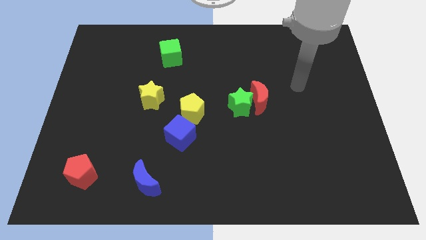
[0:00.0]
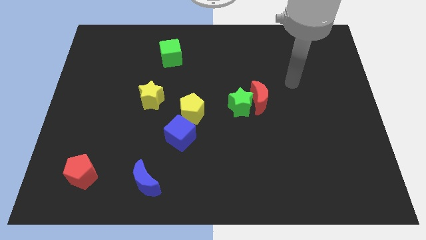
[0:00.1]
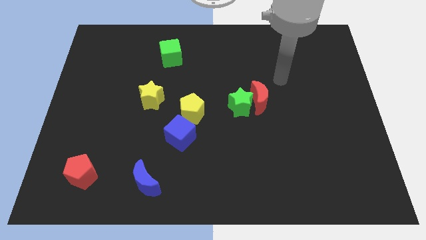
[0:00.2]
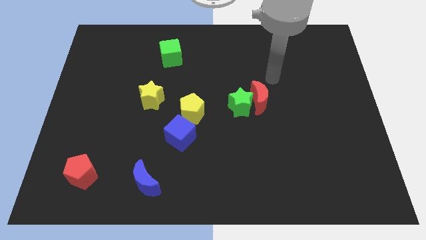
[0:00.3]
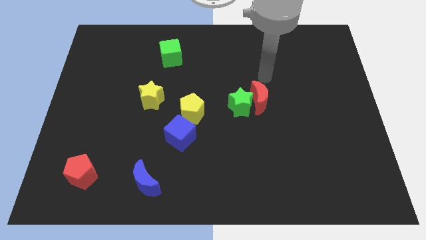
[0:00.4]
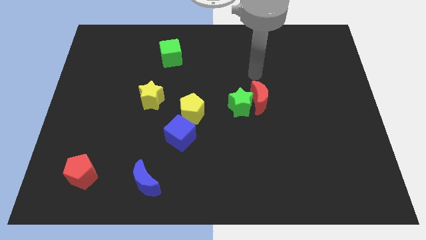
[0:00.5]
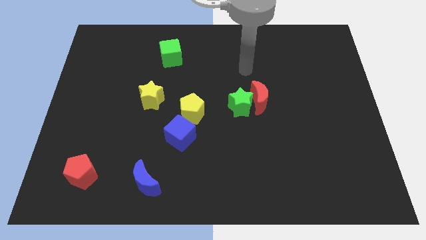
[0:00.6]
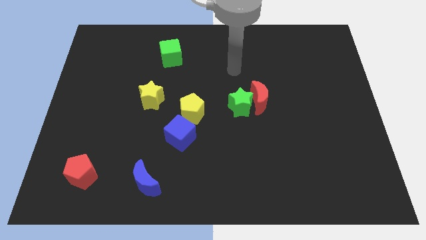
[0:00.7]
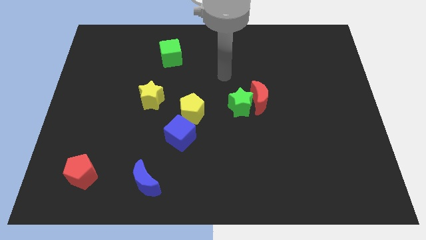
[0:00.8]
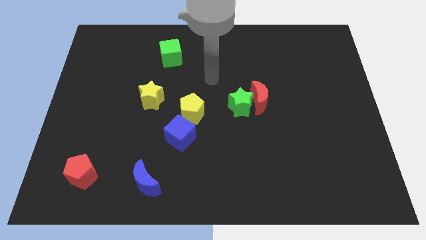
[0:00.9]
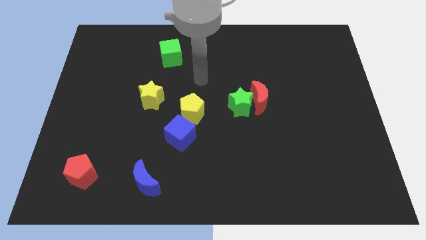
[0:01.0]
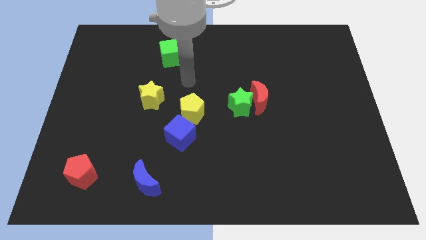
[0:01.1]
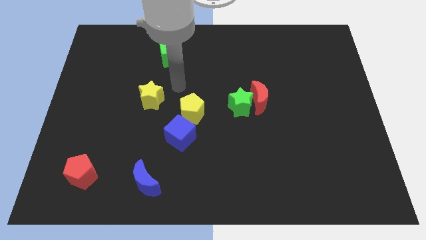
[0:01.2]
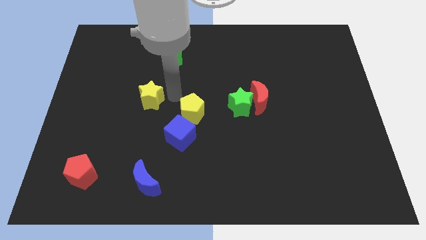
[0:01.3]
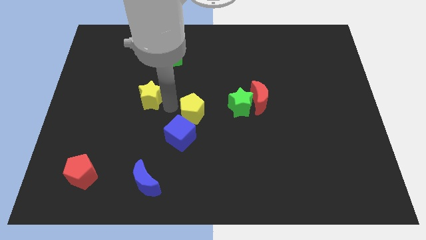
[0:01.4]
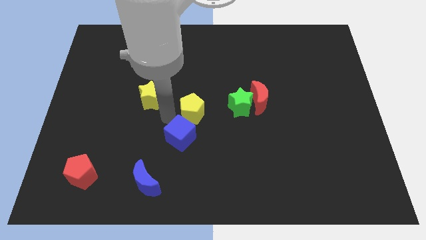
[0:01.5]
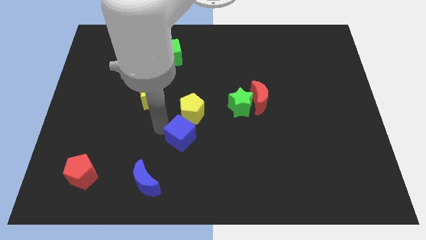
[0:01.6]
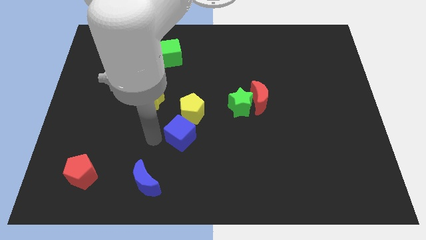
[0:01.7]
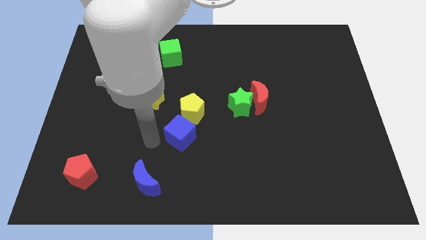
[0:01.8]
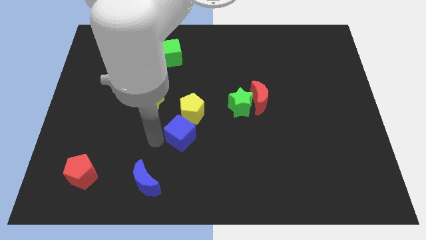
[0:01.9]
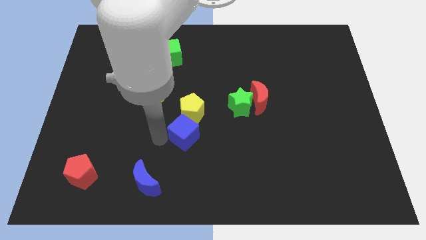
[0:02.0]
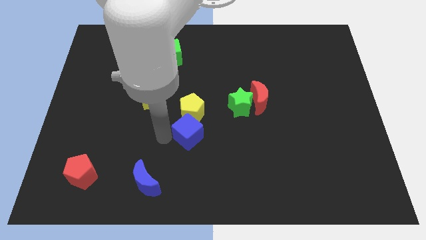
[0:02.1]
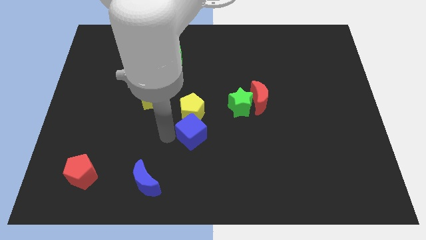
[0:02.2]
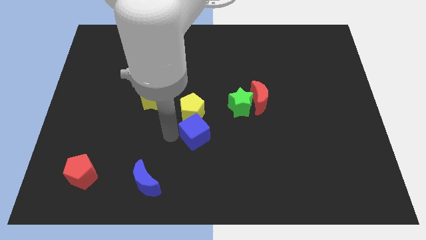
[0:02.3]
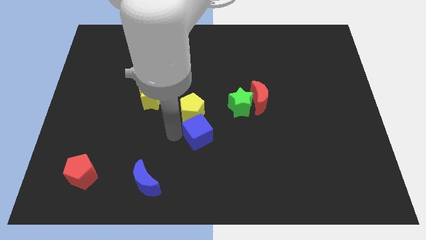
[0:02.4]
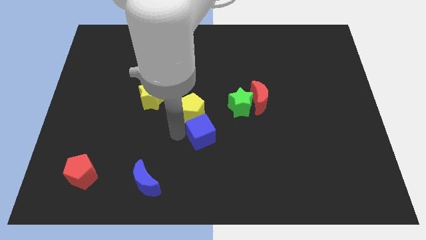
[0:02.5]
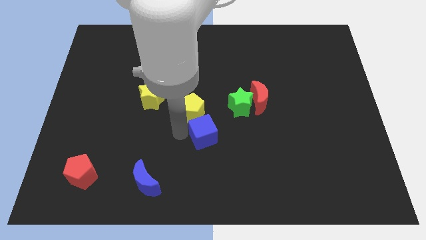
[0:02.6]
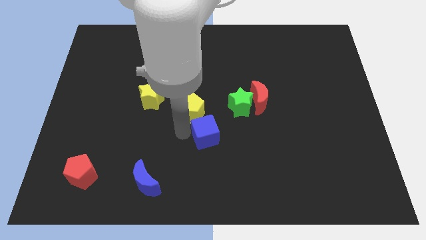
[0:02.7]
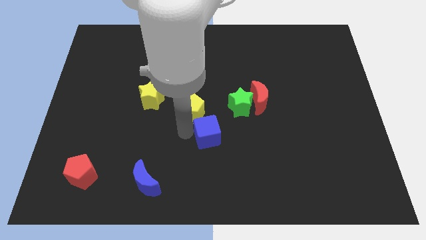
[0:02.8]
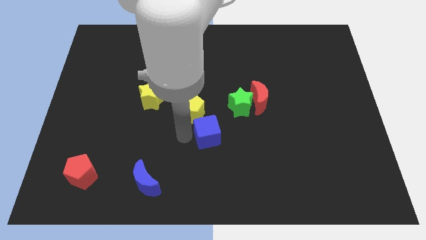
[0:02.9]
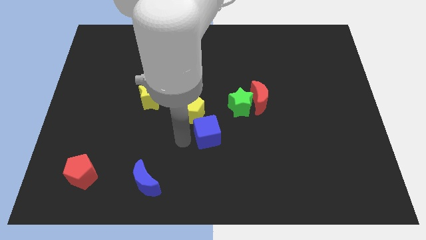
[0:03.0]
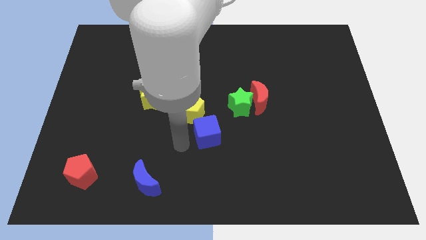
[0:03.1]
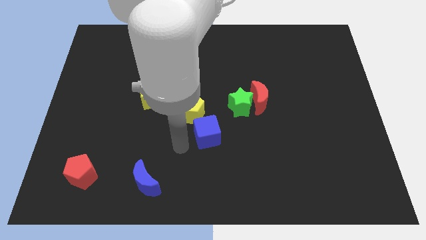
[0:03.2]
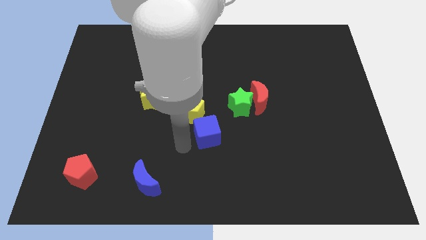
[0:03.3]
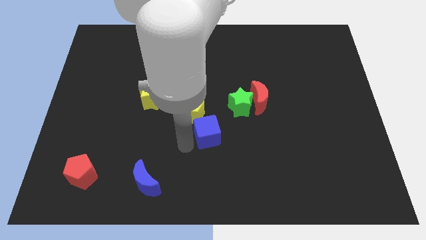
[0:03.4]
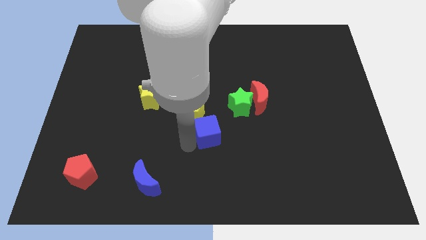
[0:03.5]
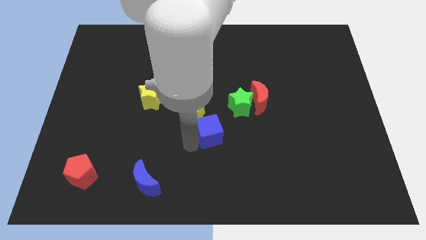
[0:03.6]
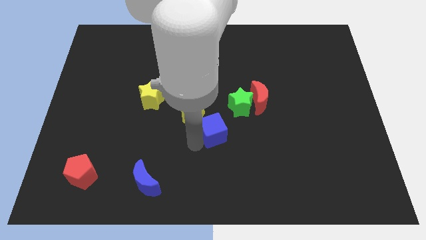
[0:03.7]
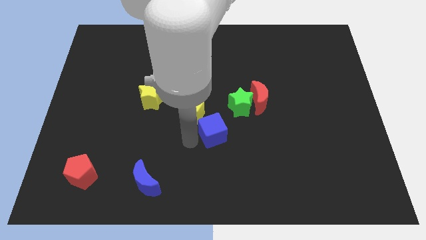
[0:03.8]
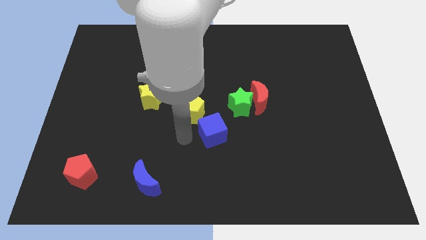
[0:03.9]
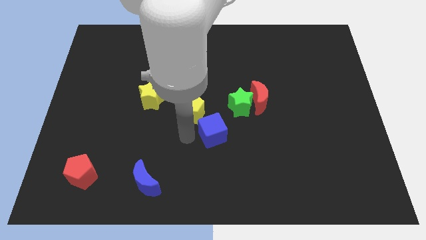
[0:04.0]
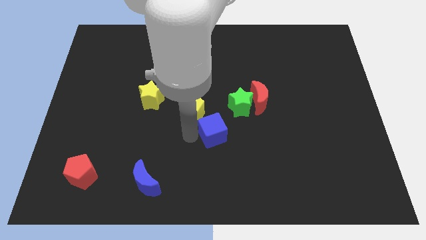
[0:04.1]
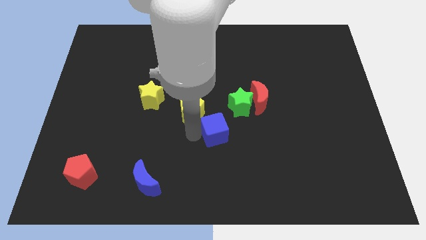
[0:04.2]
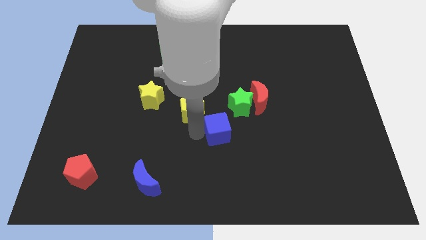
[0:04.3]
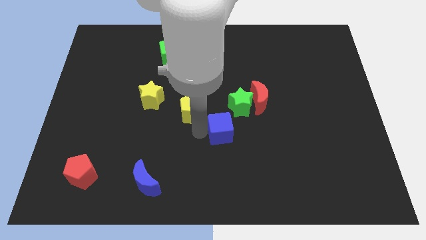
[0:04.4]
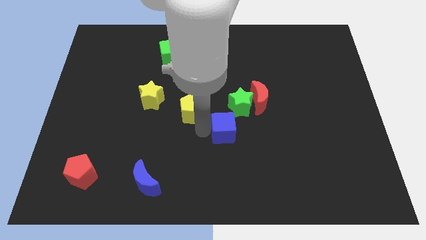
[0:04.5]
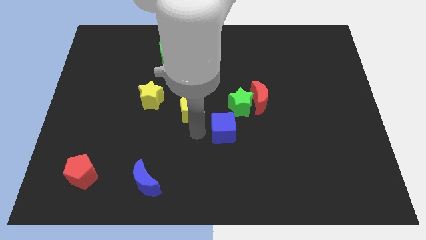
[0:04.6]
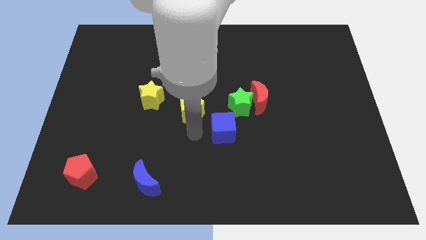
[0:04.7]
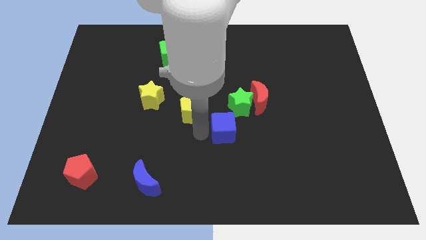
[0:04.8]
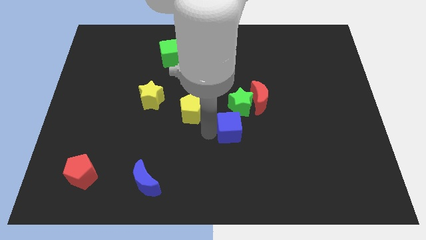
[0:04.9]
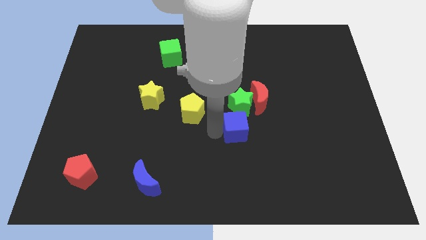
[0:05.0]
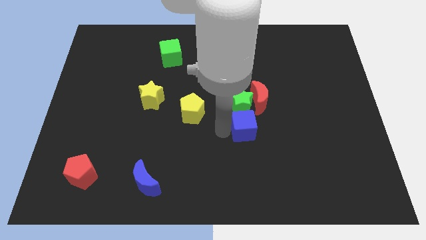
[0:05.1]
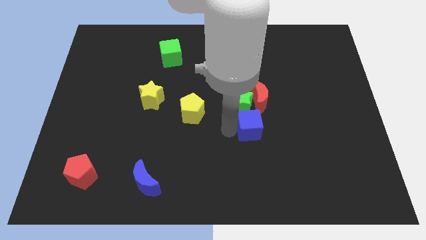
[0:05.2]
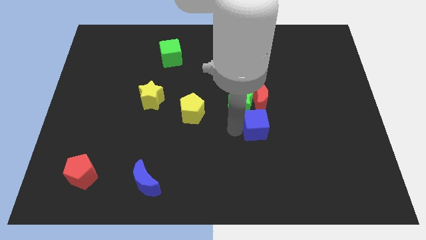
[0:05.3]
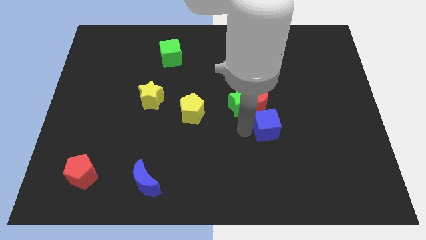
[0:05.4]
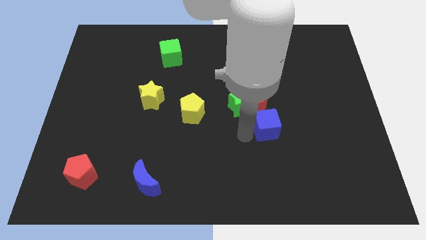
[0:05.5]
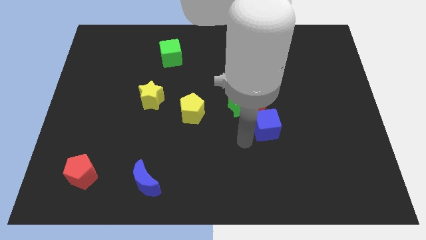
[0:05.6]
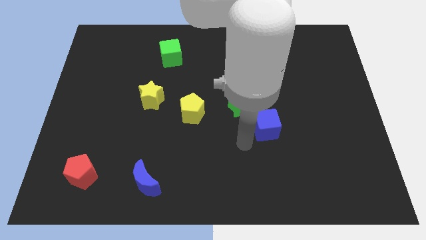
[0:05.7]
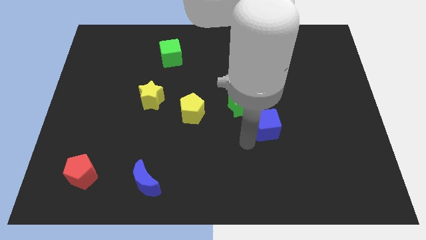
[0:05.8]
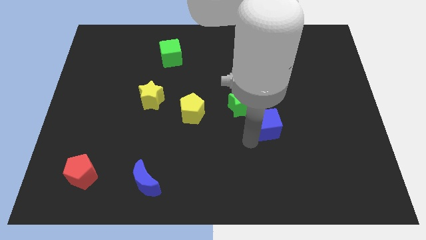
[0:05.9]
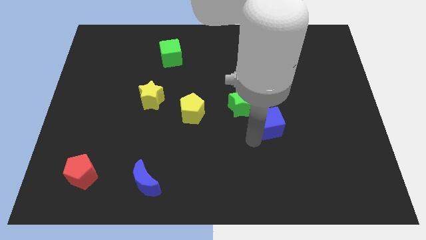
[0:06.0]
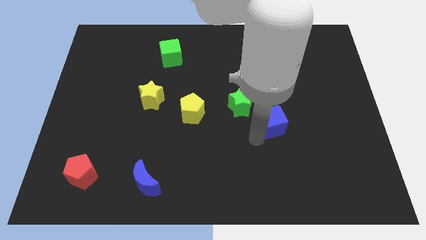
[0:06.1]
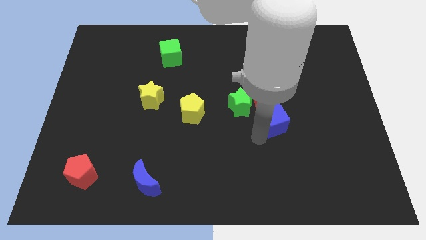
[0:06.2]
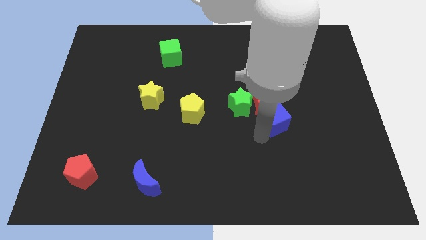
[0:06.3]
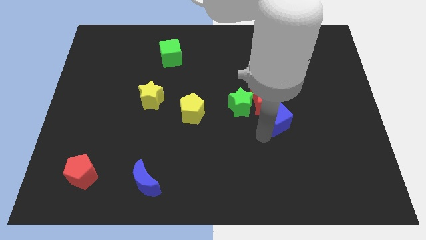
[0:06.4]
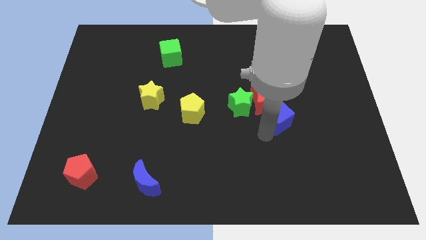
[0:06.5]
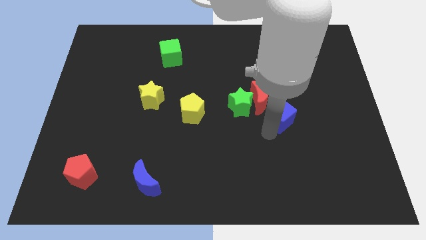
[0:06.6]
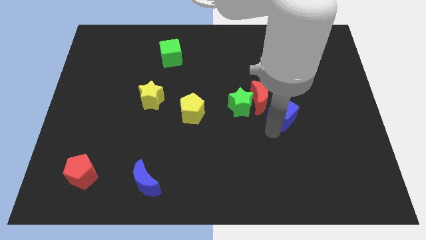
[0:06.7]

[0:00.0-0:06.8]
put the blue cube to the right of the red moon

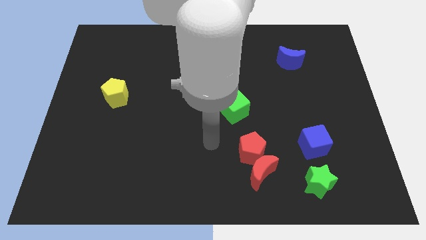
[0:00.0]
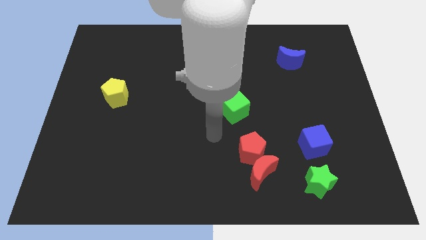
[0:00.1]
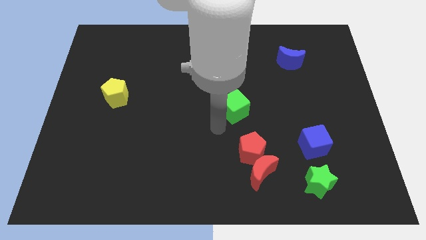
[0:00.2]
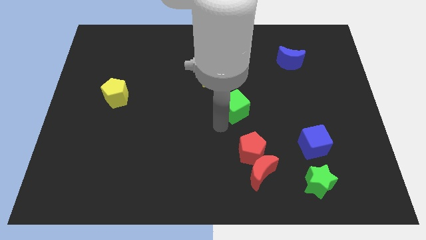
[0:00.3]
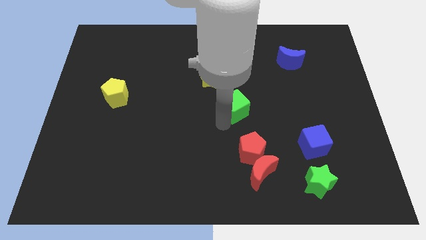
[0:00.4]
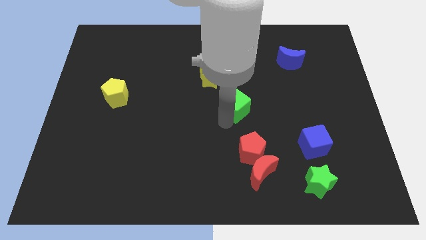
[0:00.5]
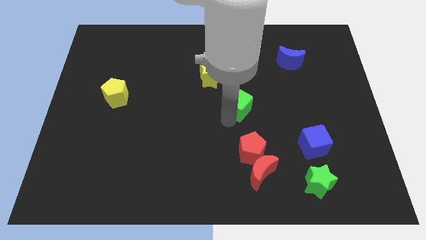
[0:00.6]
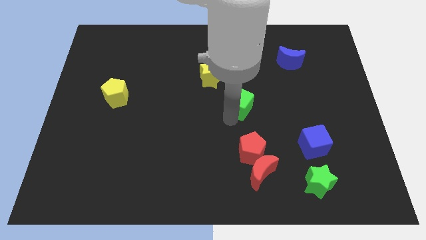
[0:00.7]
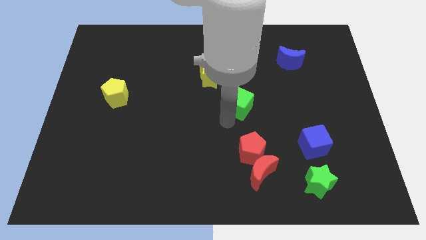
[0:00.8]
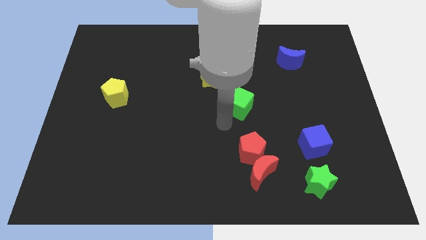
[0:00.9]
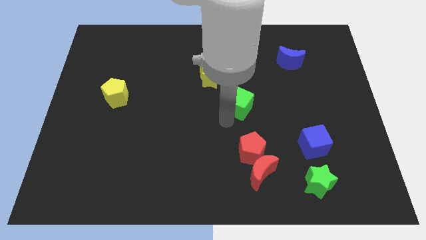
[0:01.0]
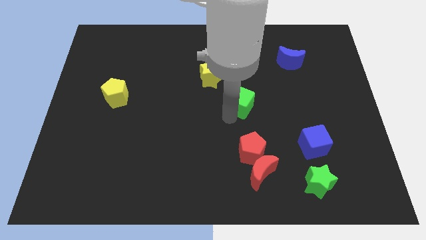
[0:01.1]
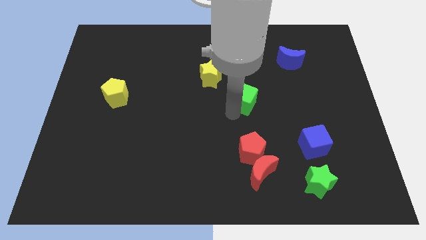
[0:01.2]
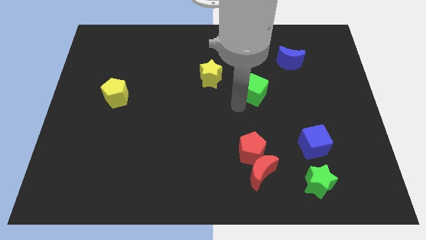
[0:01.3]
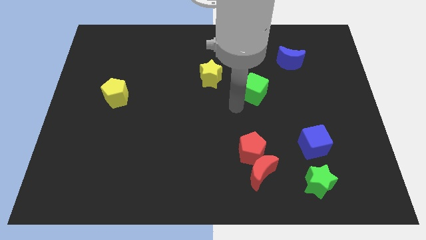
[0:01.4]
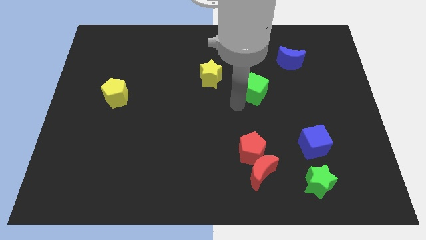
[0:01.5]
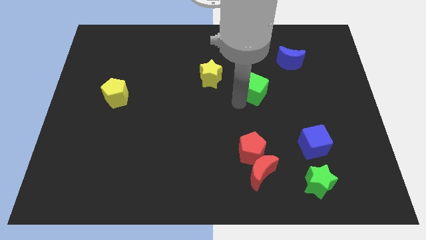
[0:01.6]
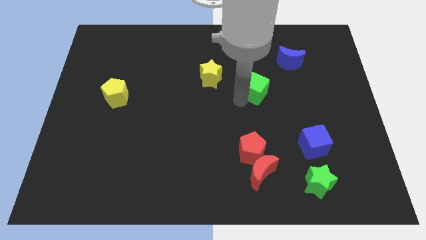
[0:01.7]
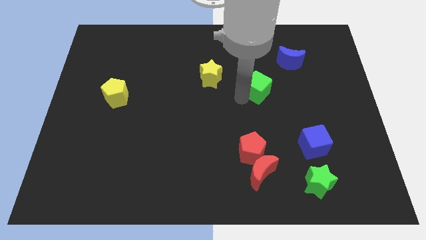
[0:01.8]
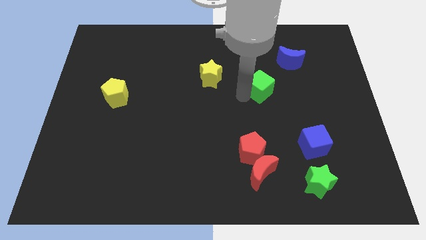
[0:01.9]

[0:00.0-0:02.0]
push the green cube to the bottom left of the blue moon
